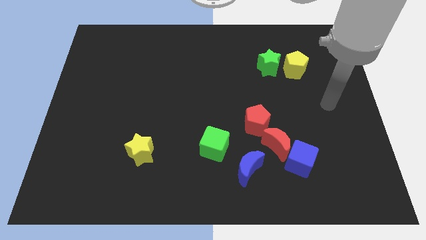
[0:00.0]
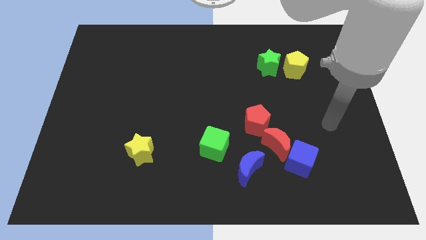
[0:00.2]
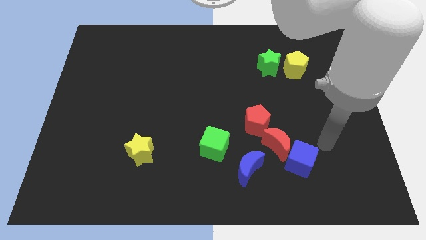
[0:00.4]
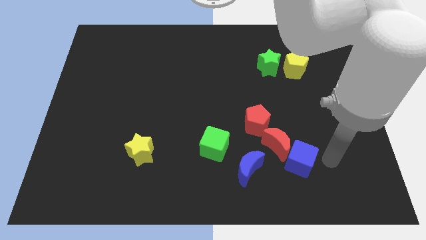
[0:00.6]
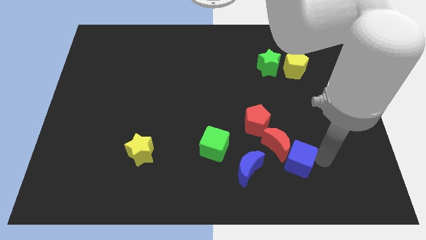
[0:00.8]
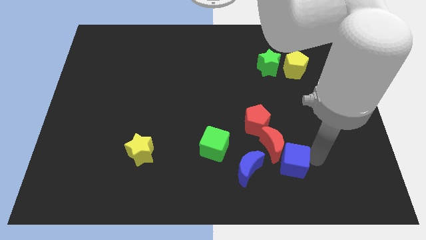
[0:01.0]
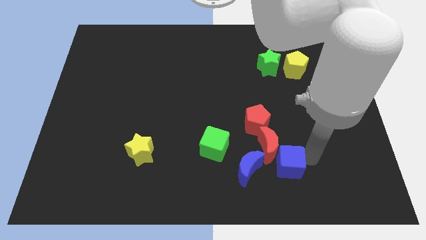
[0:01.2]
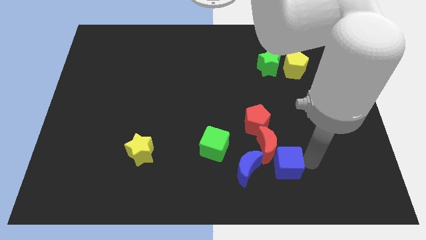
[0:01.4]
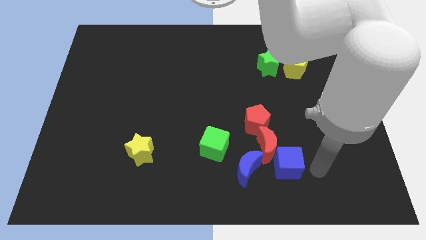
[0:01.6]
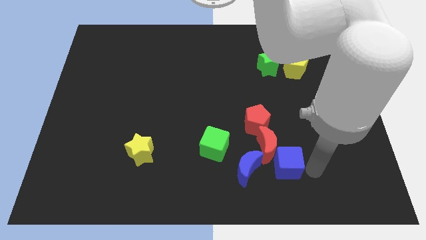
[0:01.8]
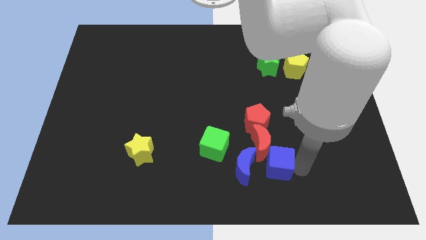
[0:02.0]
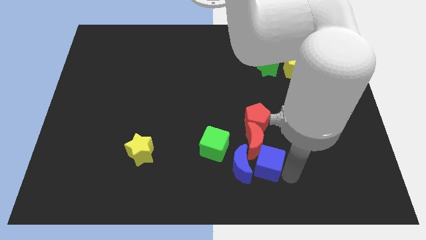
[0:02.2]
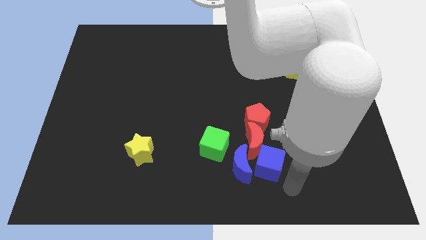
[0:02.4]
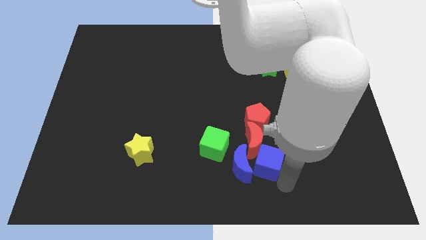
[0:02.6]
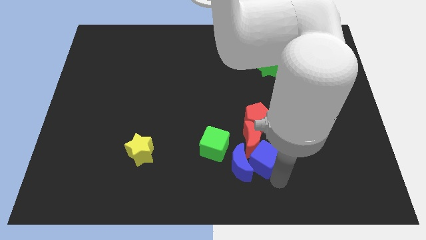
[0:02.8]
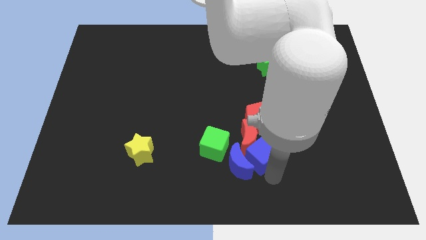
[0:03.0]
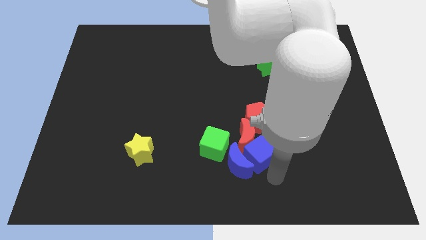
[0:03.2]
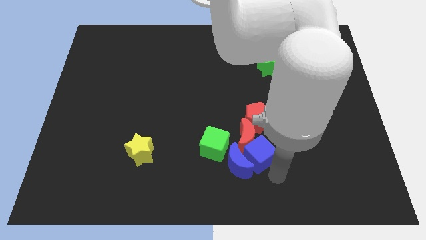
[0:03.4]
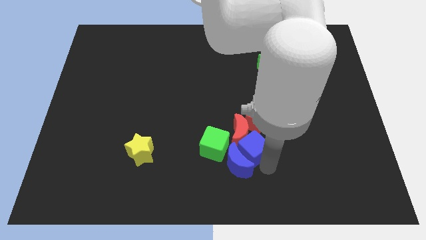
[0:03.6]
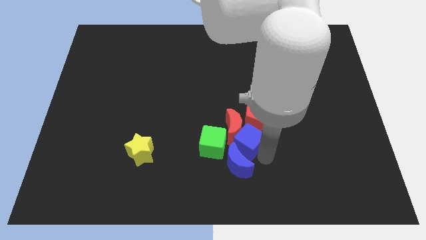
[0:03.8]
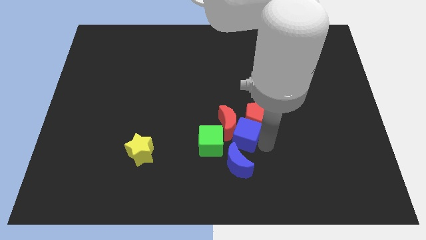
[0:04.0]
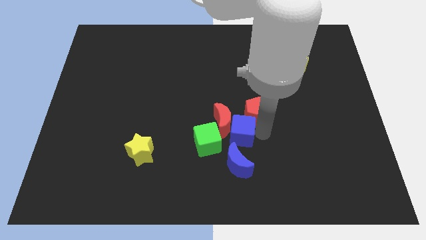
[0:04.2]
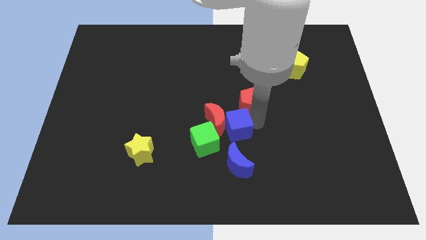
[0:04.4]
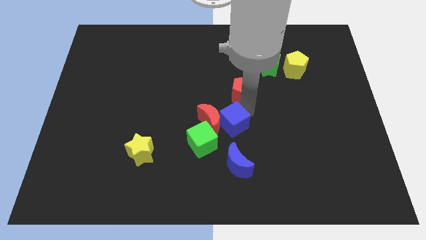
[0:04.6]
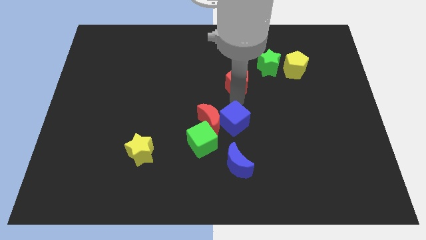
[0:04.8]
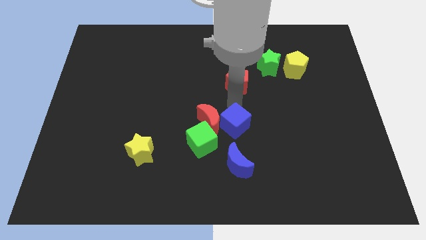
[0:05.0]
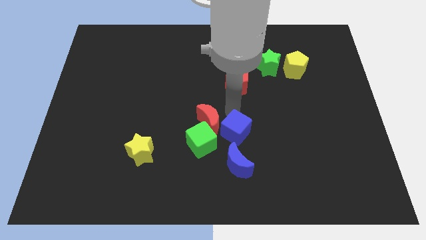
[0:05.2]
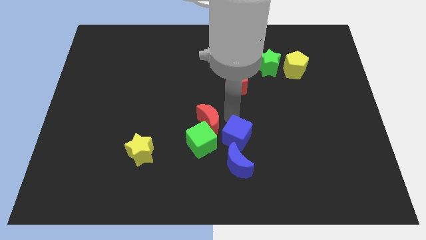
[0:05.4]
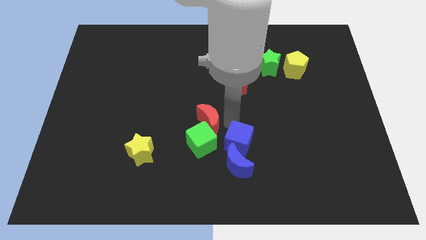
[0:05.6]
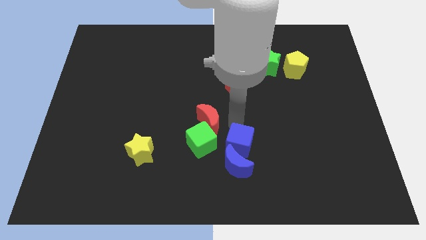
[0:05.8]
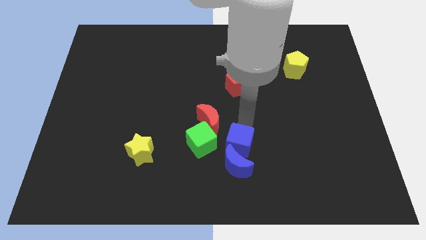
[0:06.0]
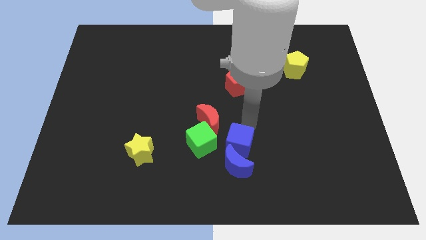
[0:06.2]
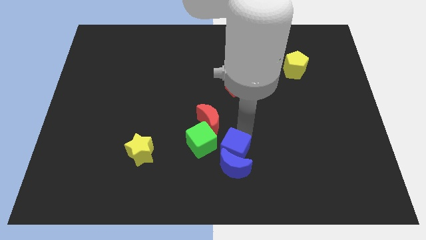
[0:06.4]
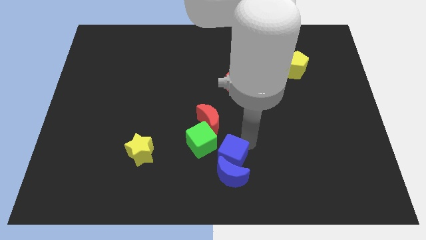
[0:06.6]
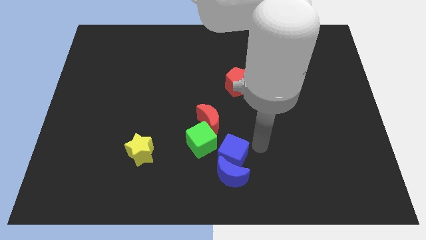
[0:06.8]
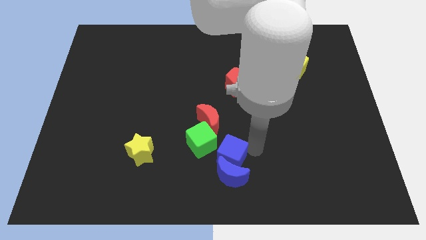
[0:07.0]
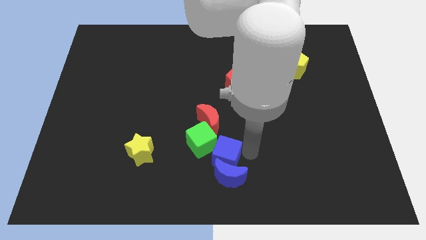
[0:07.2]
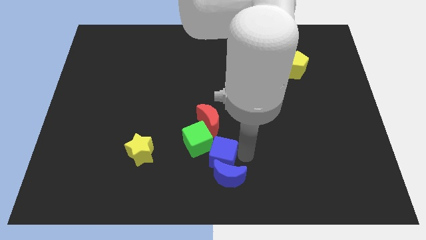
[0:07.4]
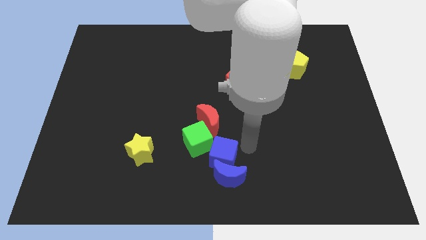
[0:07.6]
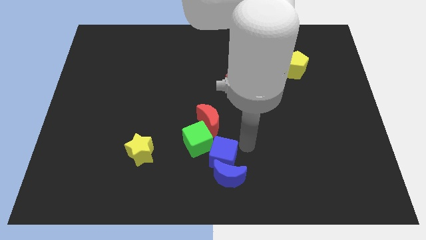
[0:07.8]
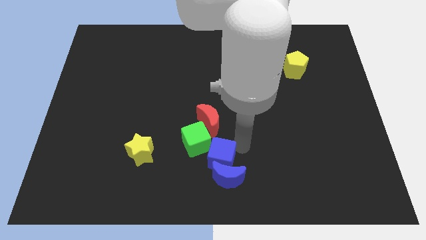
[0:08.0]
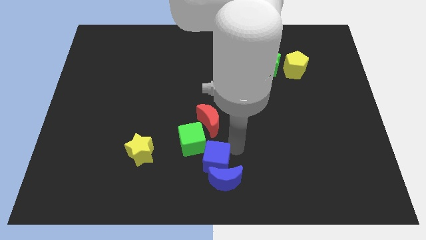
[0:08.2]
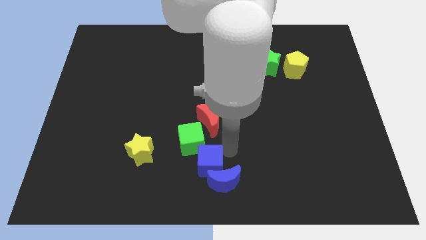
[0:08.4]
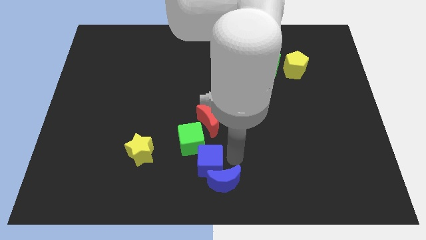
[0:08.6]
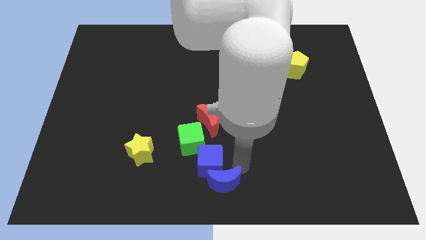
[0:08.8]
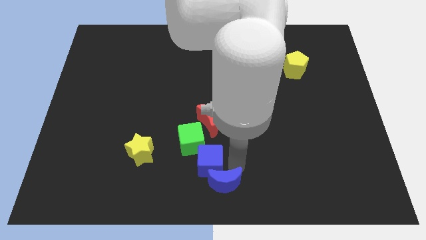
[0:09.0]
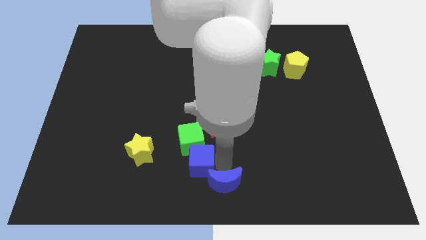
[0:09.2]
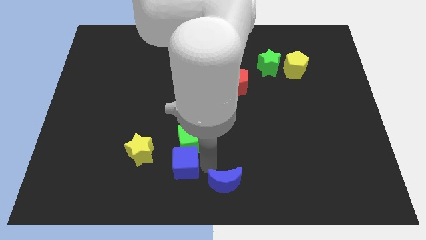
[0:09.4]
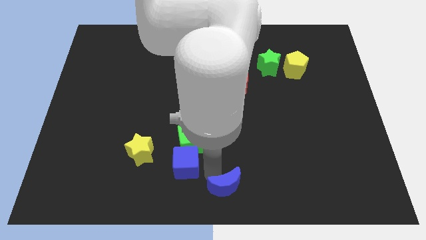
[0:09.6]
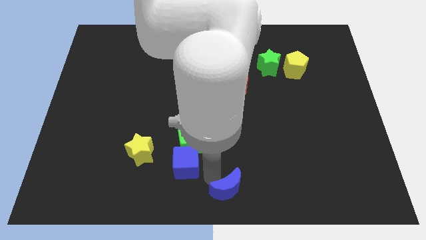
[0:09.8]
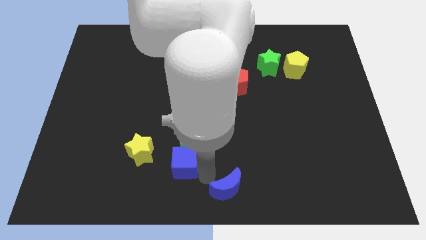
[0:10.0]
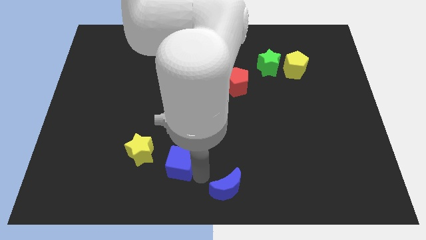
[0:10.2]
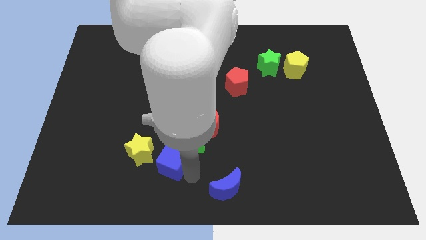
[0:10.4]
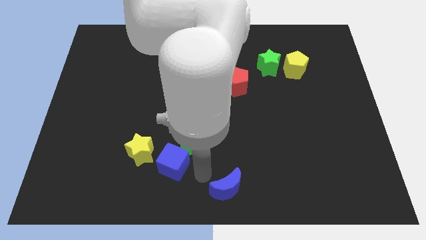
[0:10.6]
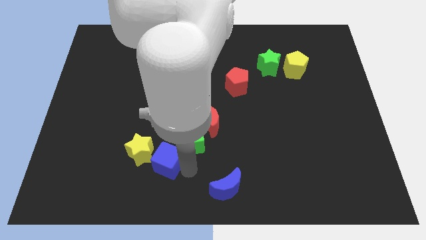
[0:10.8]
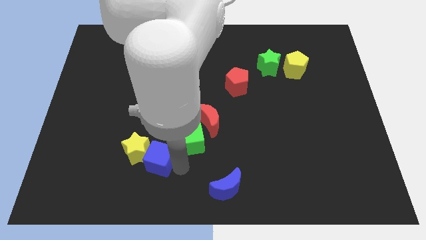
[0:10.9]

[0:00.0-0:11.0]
slide the blue cube close to the yellow star

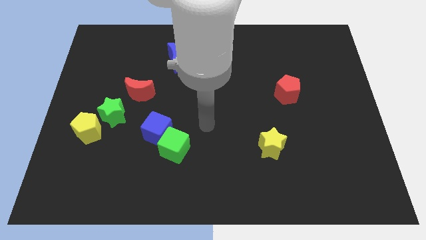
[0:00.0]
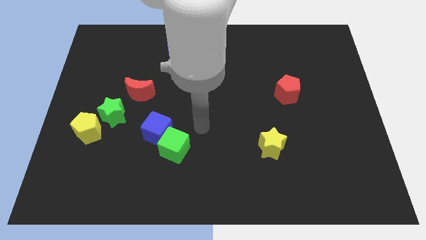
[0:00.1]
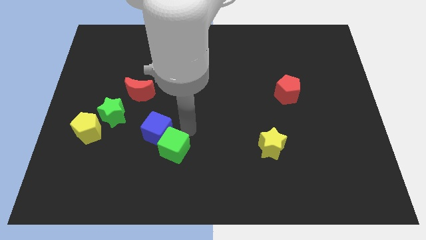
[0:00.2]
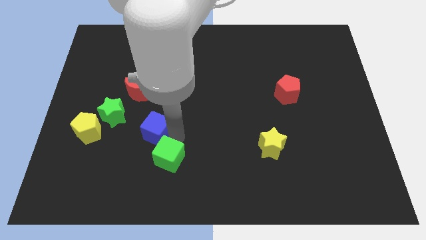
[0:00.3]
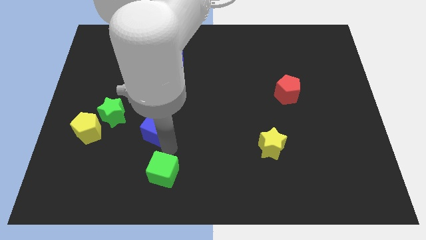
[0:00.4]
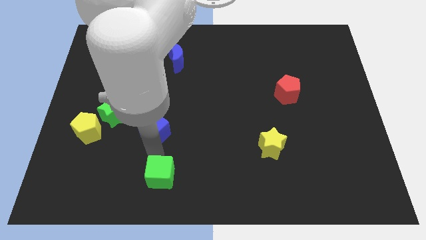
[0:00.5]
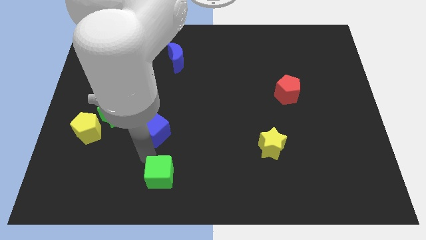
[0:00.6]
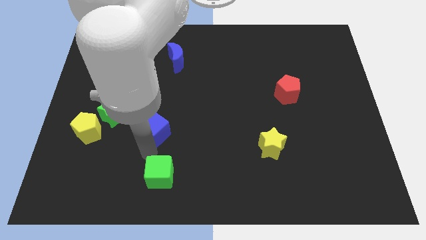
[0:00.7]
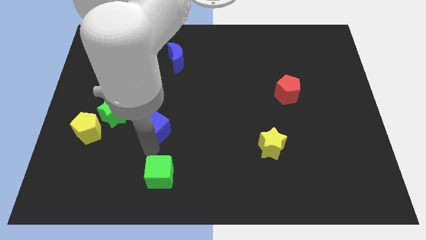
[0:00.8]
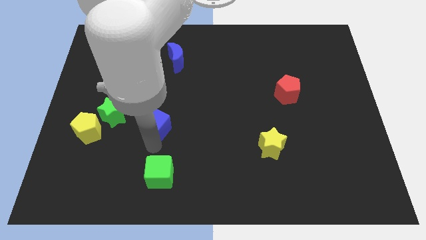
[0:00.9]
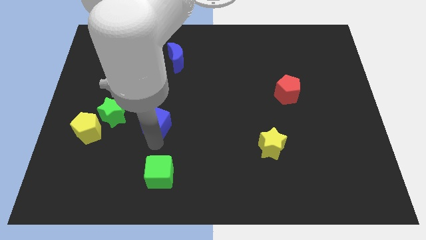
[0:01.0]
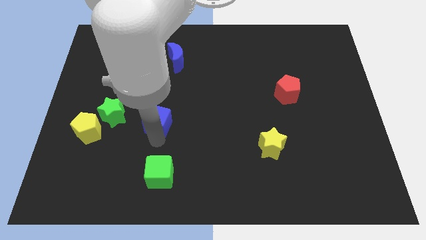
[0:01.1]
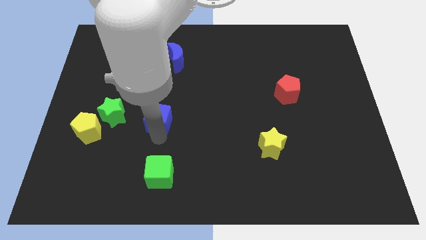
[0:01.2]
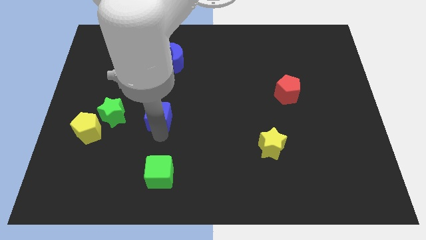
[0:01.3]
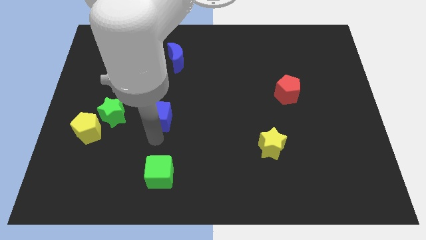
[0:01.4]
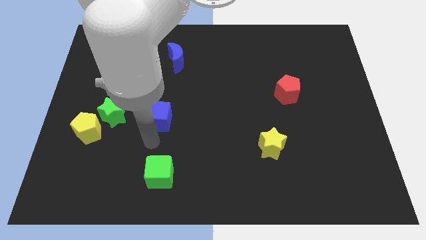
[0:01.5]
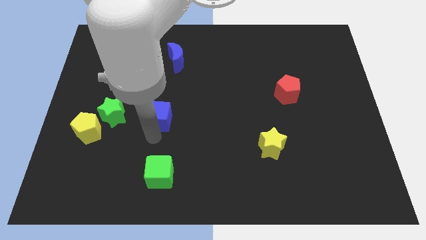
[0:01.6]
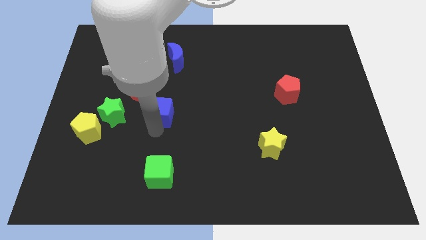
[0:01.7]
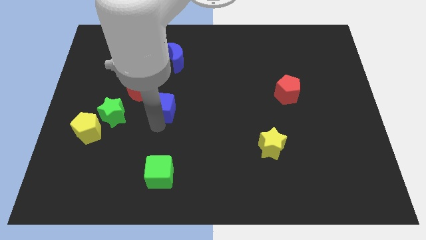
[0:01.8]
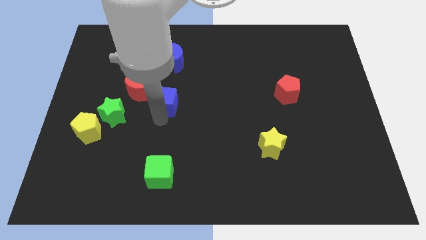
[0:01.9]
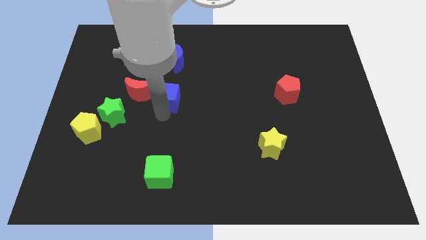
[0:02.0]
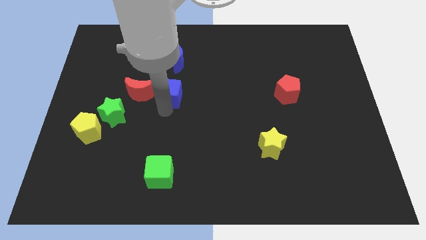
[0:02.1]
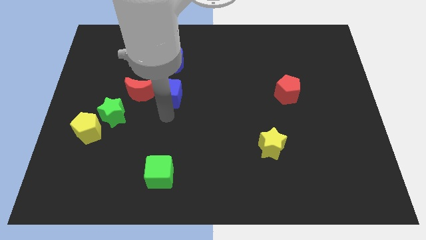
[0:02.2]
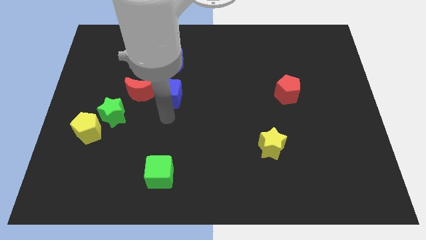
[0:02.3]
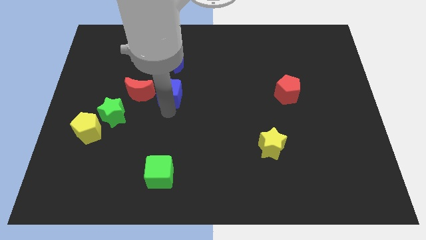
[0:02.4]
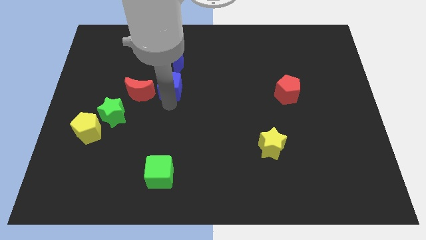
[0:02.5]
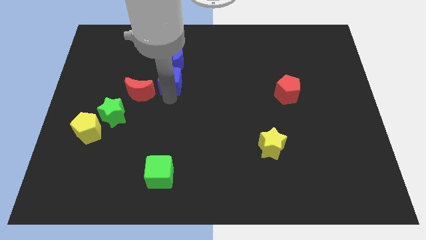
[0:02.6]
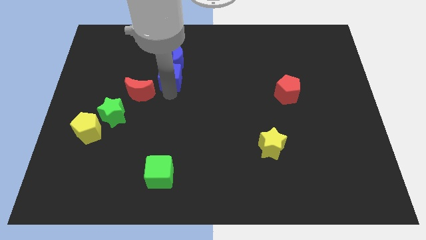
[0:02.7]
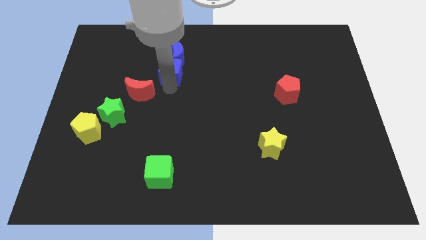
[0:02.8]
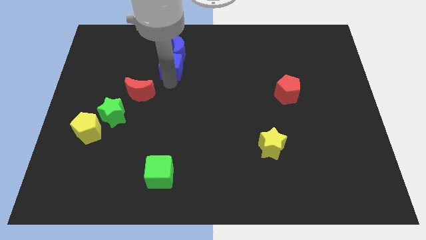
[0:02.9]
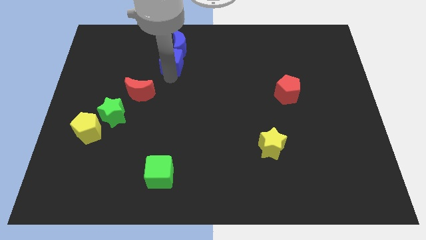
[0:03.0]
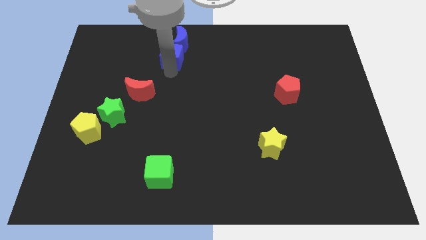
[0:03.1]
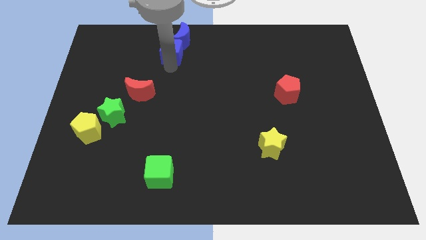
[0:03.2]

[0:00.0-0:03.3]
push the blue cube to the blue moon
